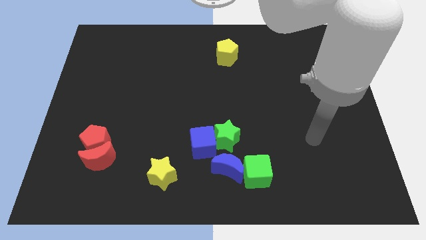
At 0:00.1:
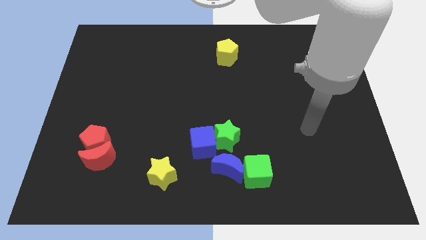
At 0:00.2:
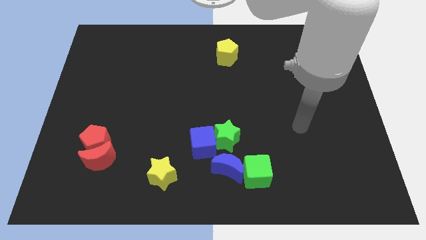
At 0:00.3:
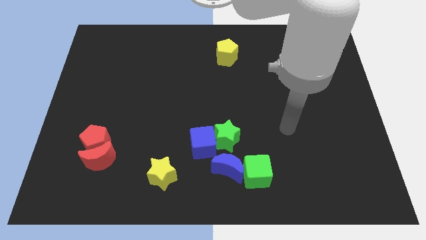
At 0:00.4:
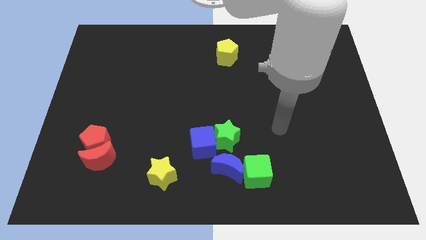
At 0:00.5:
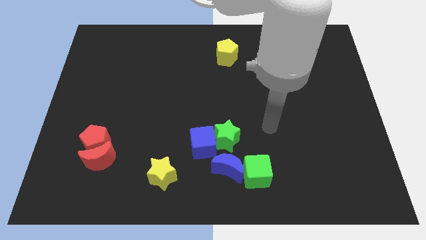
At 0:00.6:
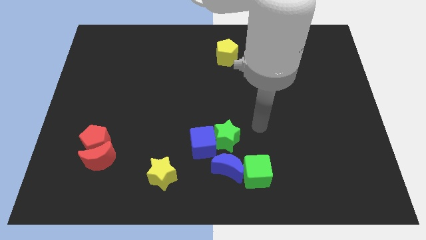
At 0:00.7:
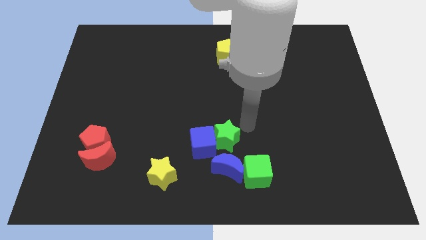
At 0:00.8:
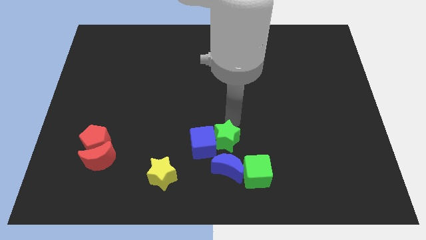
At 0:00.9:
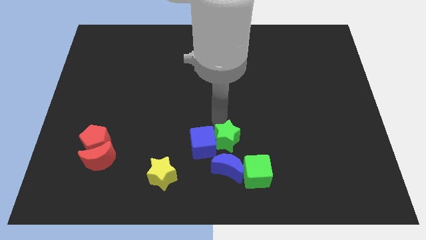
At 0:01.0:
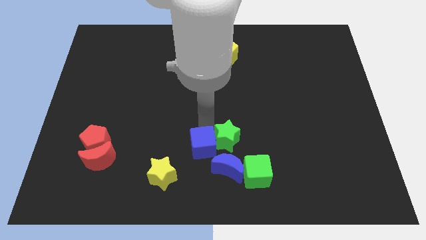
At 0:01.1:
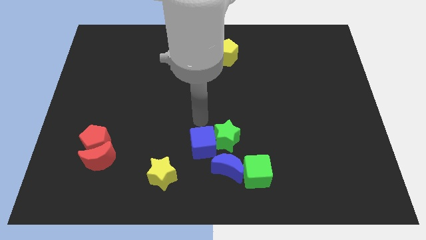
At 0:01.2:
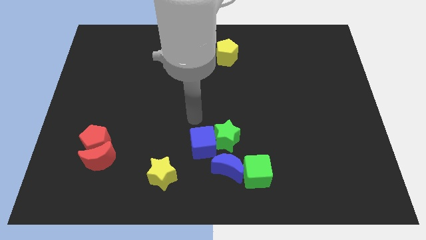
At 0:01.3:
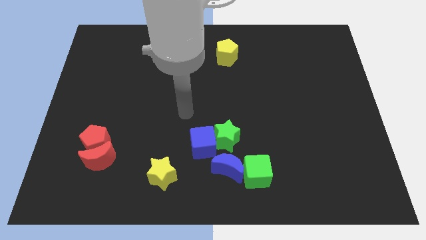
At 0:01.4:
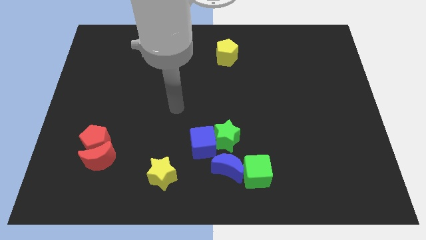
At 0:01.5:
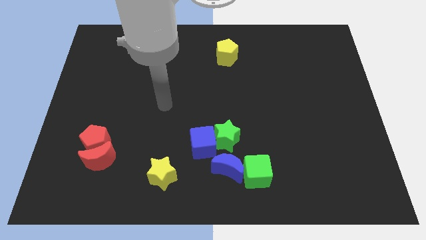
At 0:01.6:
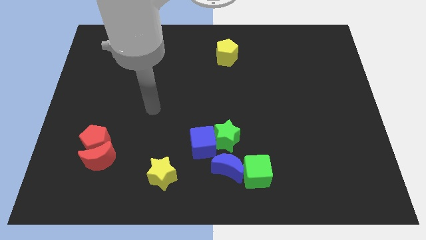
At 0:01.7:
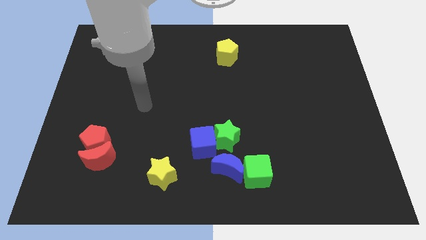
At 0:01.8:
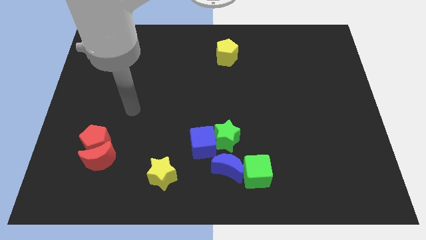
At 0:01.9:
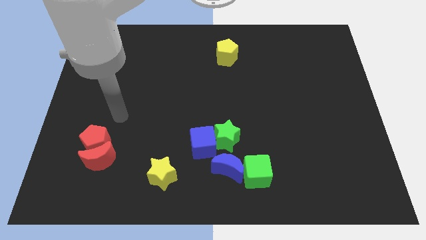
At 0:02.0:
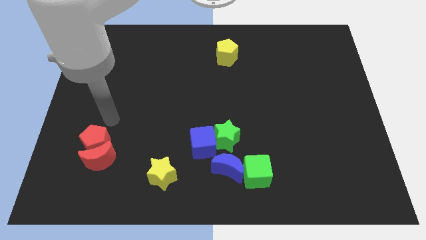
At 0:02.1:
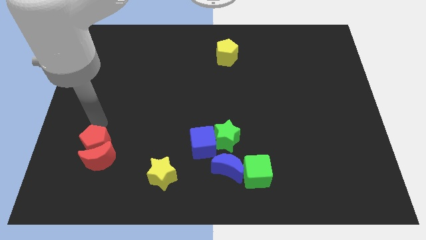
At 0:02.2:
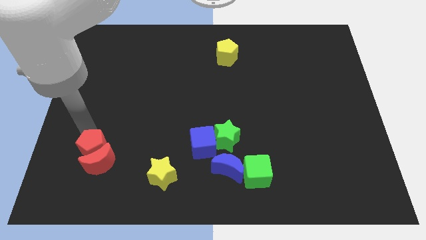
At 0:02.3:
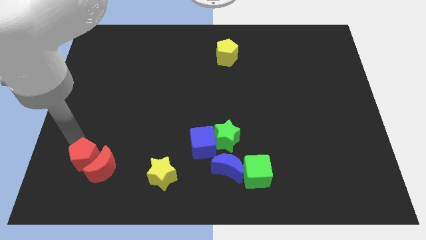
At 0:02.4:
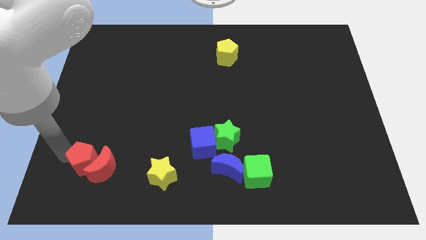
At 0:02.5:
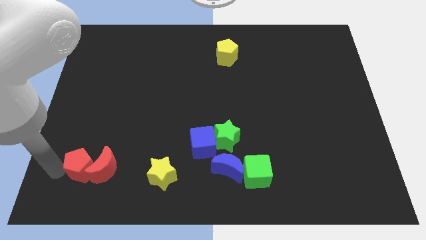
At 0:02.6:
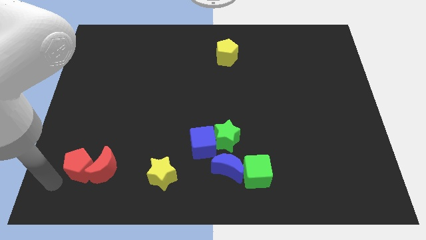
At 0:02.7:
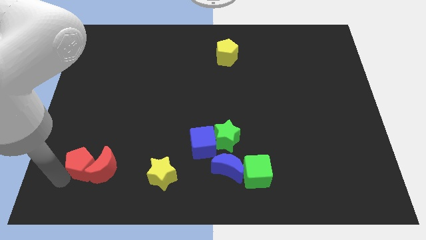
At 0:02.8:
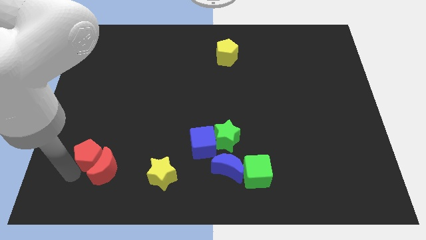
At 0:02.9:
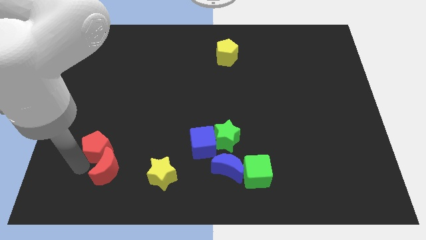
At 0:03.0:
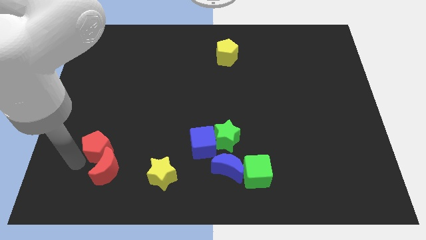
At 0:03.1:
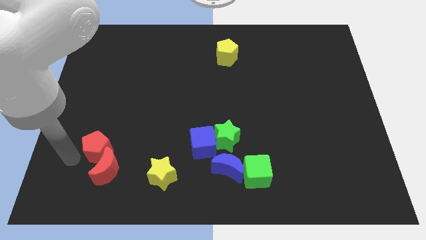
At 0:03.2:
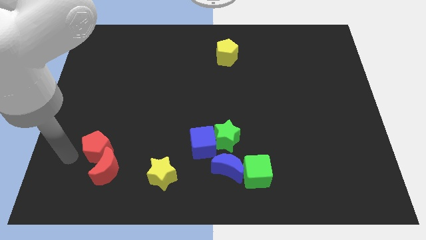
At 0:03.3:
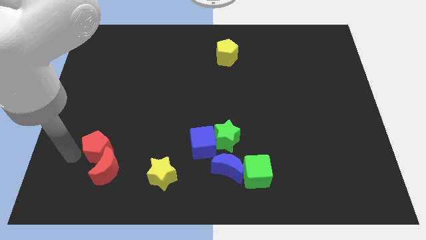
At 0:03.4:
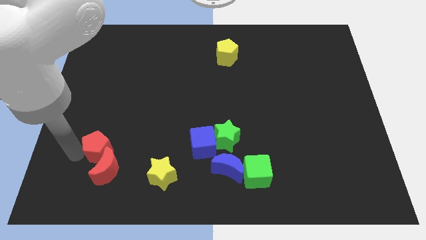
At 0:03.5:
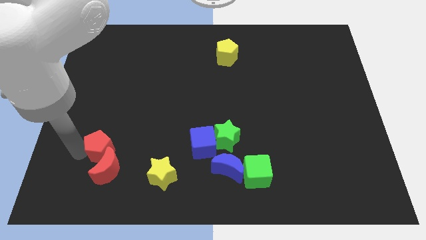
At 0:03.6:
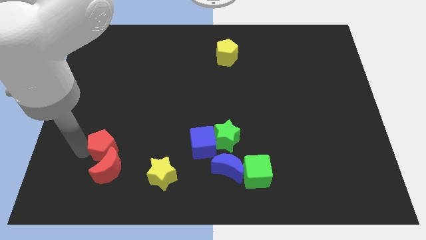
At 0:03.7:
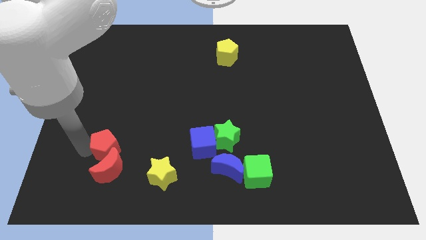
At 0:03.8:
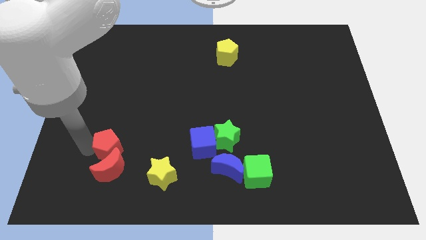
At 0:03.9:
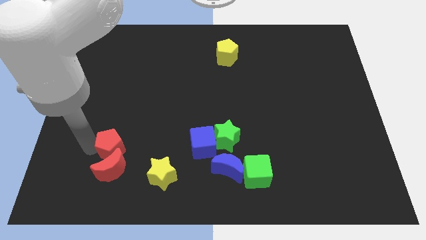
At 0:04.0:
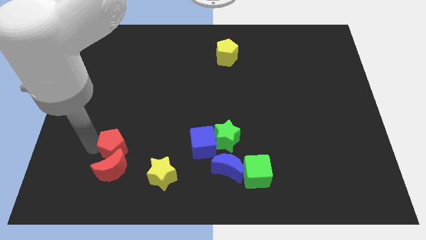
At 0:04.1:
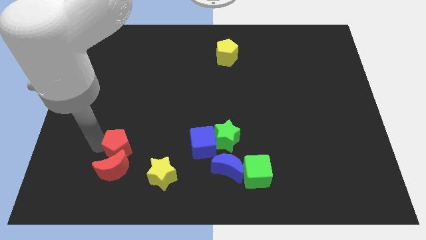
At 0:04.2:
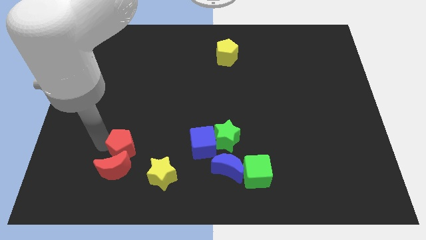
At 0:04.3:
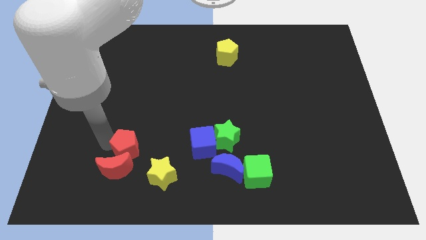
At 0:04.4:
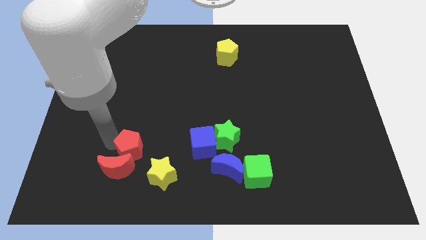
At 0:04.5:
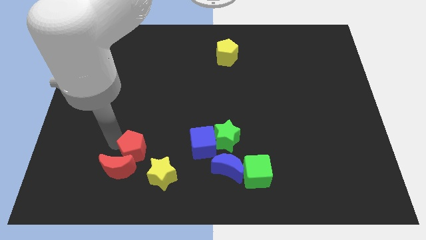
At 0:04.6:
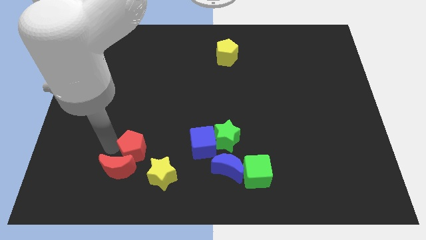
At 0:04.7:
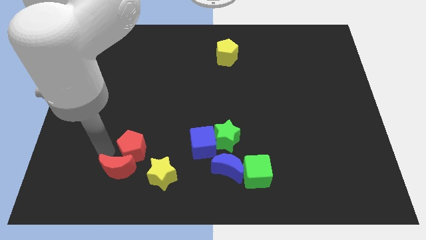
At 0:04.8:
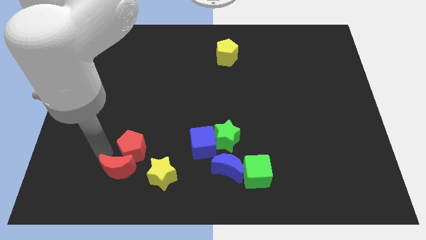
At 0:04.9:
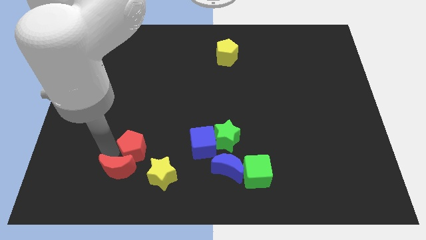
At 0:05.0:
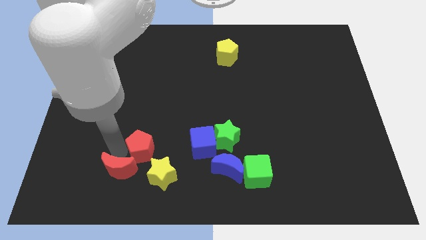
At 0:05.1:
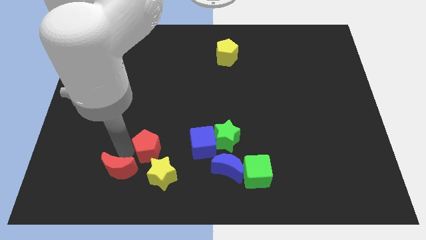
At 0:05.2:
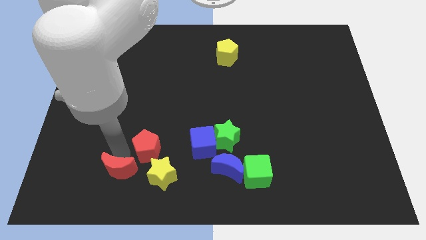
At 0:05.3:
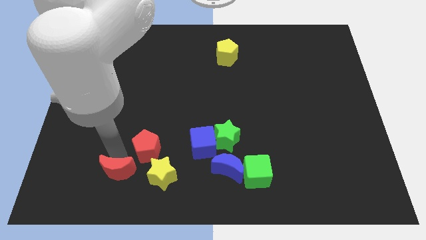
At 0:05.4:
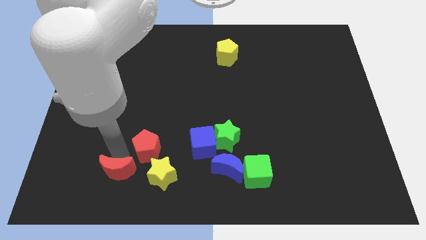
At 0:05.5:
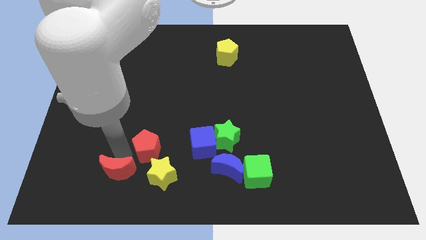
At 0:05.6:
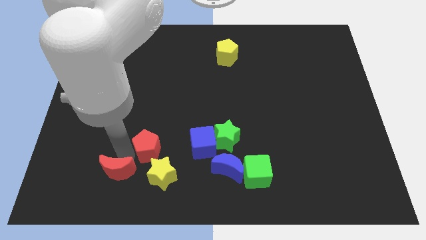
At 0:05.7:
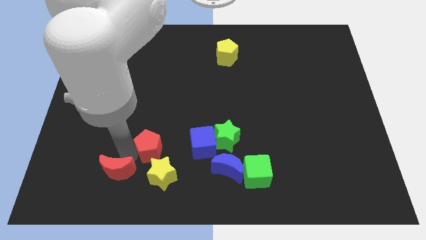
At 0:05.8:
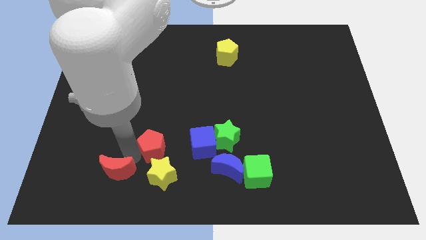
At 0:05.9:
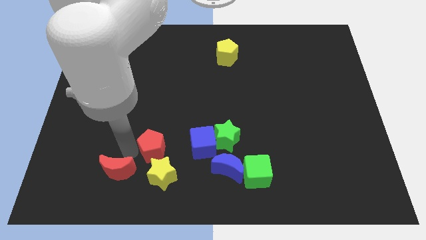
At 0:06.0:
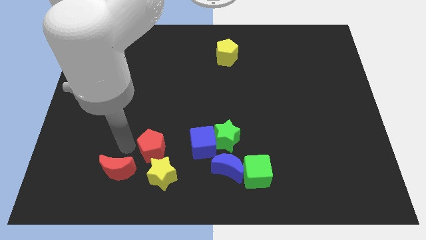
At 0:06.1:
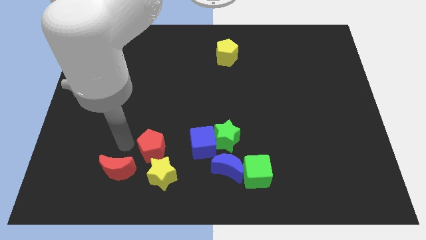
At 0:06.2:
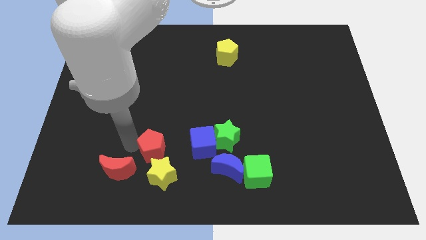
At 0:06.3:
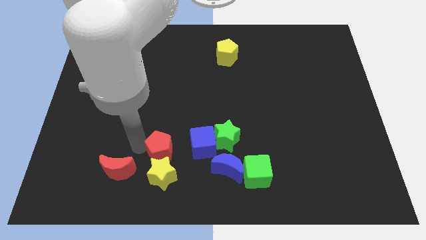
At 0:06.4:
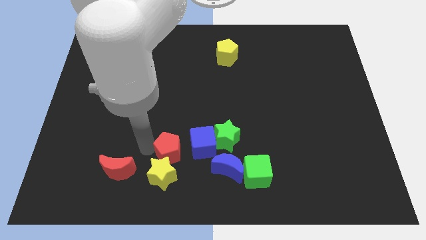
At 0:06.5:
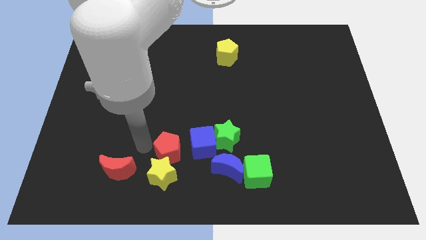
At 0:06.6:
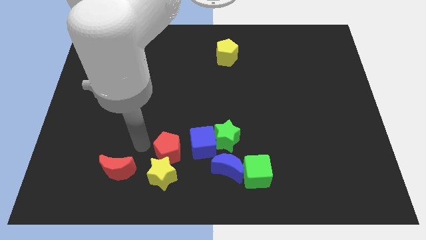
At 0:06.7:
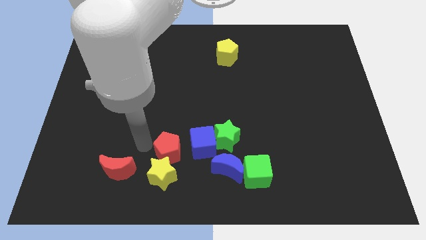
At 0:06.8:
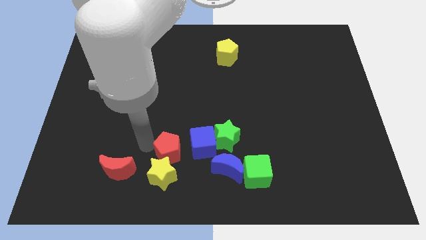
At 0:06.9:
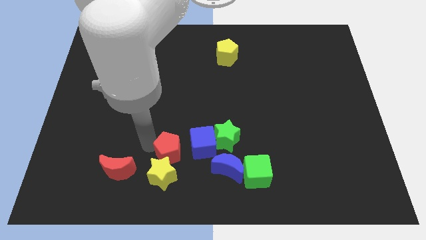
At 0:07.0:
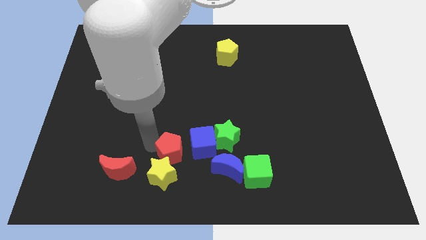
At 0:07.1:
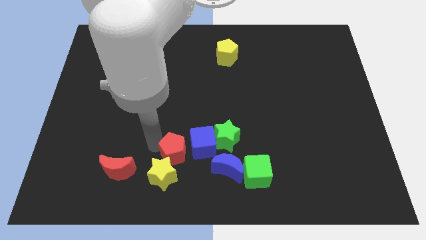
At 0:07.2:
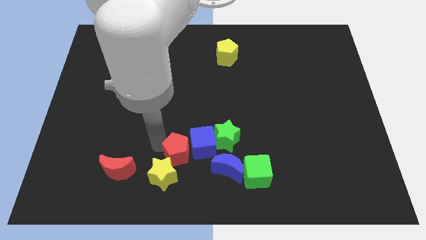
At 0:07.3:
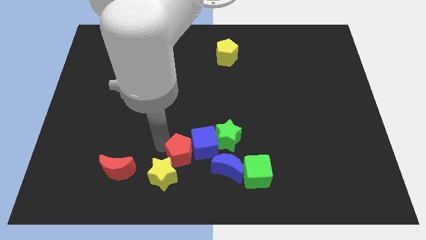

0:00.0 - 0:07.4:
slide the red pentagon diagonally down and to the left of the green star
